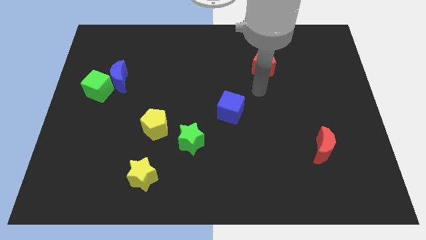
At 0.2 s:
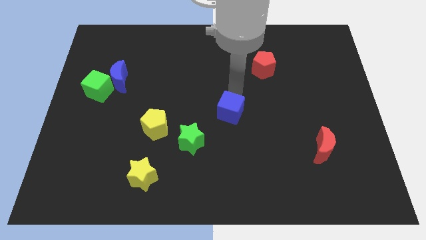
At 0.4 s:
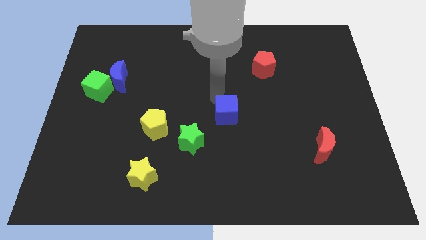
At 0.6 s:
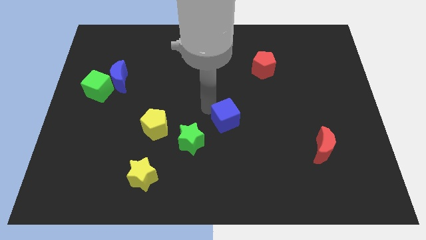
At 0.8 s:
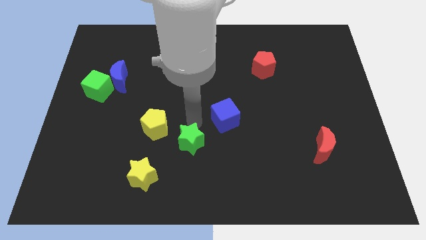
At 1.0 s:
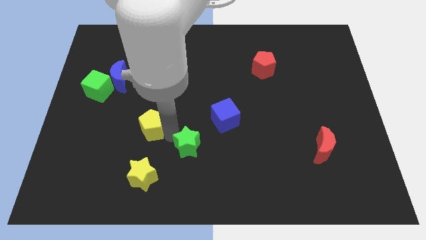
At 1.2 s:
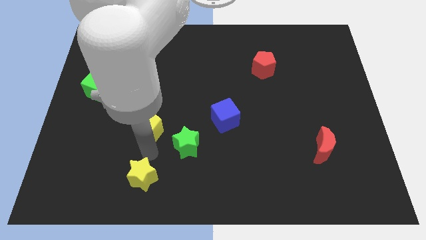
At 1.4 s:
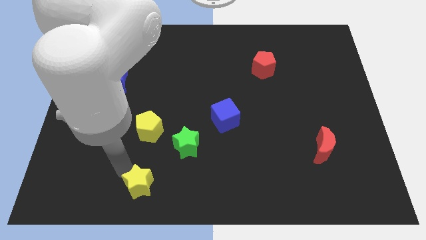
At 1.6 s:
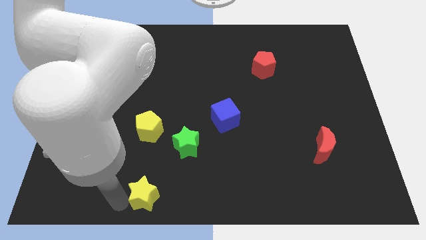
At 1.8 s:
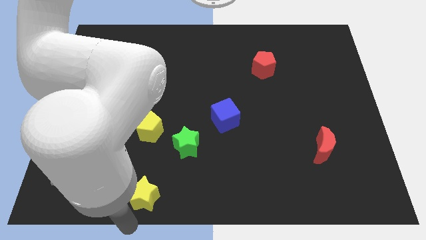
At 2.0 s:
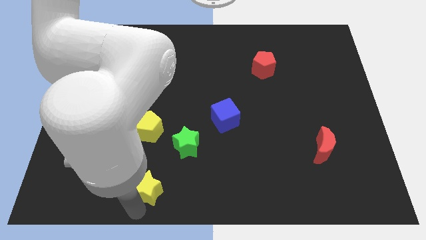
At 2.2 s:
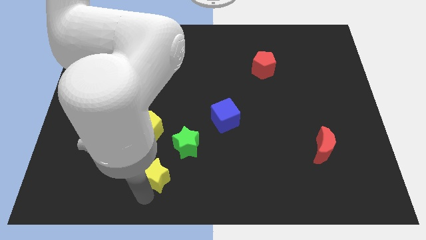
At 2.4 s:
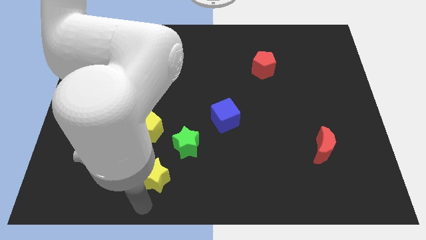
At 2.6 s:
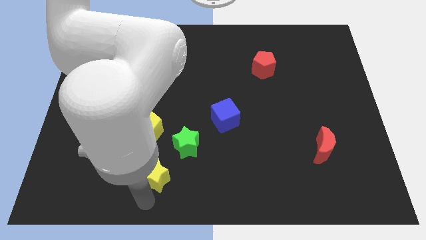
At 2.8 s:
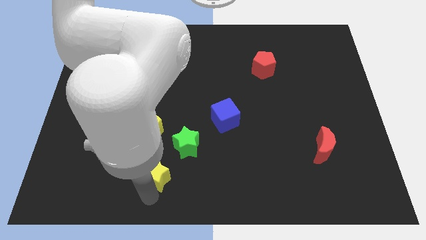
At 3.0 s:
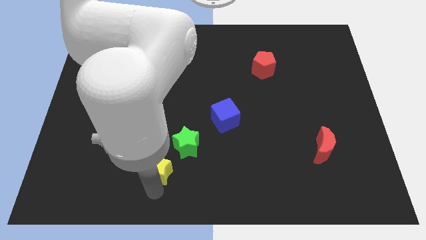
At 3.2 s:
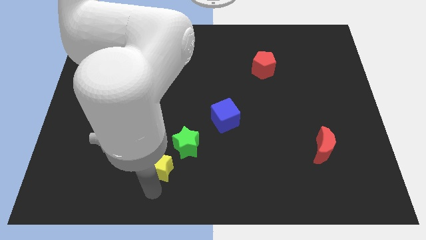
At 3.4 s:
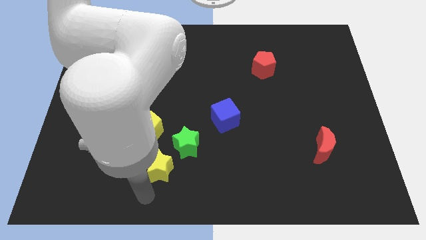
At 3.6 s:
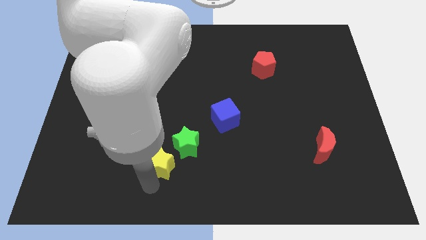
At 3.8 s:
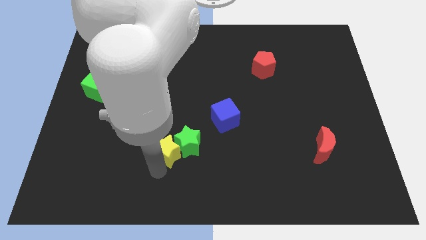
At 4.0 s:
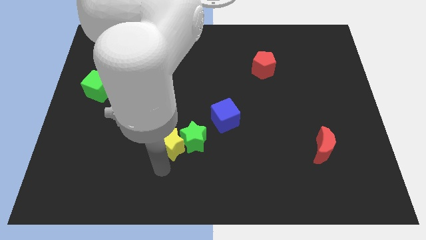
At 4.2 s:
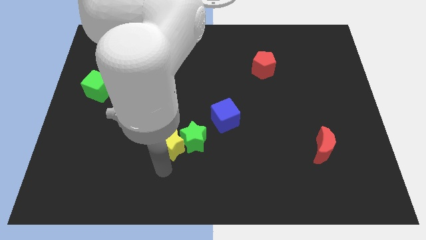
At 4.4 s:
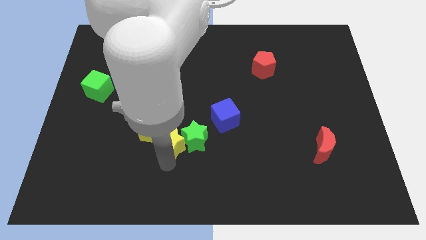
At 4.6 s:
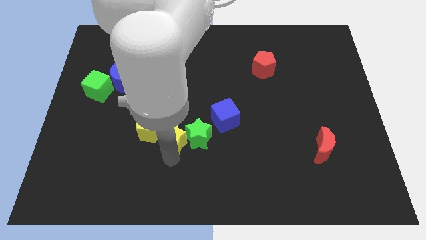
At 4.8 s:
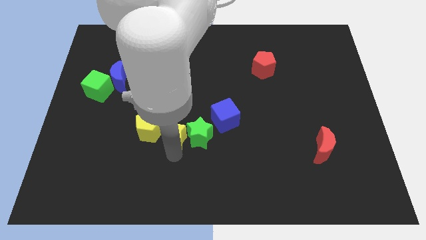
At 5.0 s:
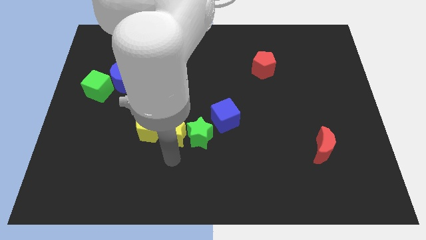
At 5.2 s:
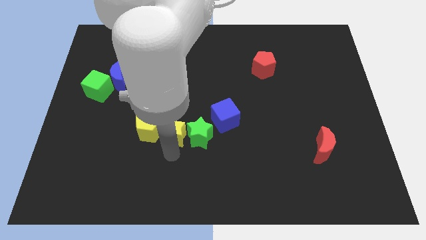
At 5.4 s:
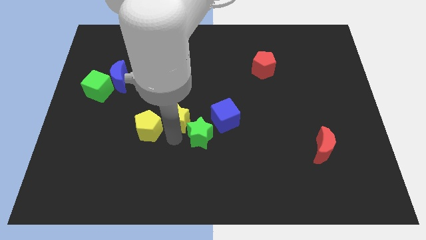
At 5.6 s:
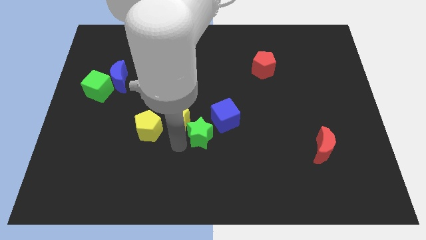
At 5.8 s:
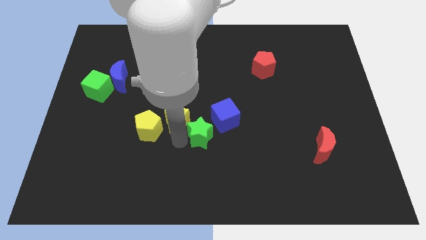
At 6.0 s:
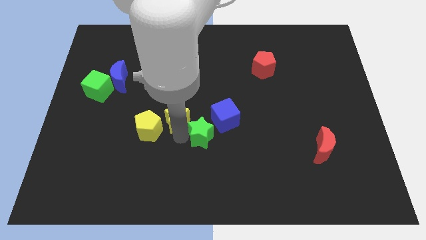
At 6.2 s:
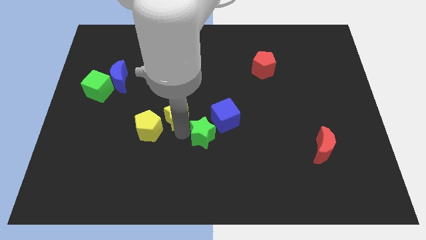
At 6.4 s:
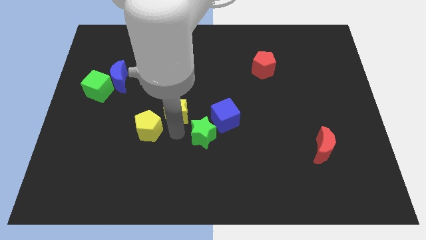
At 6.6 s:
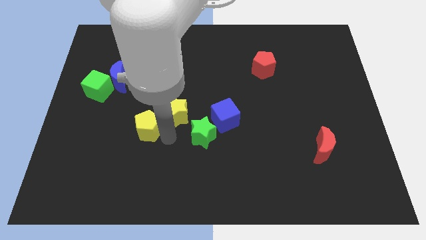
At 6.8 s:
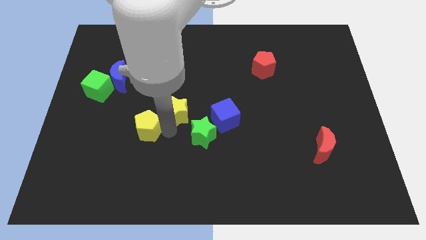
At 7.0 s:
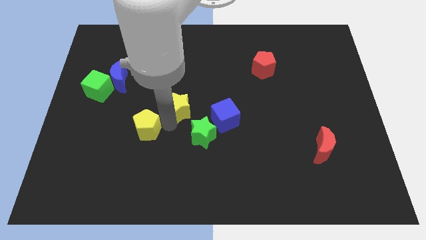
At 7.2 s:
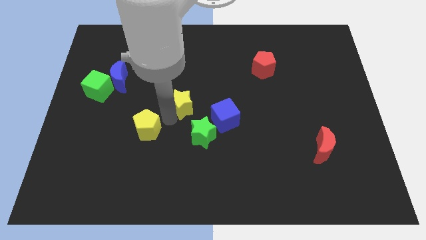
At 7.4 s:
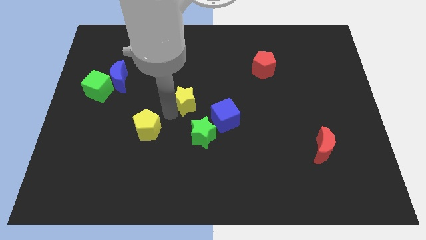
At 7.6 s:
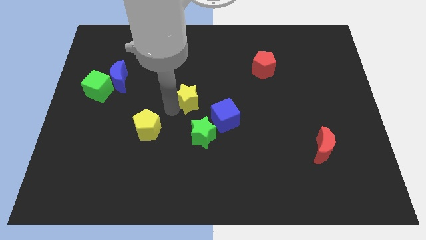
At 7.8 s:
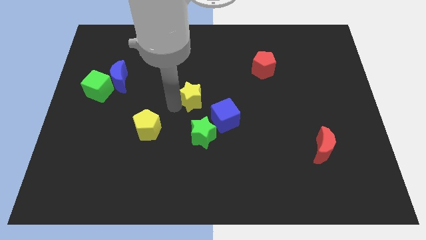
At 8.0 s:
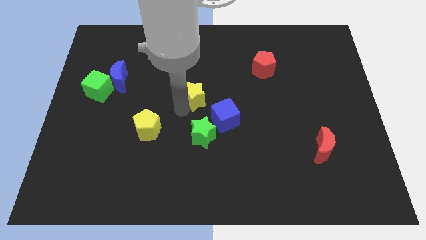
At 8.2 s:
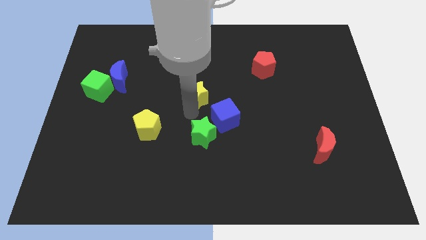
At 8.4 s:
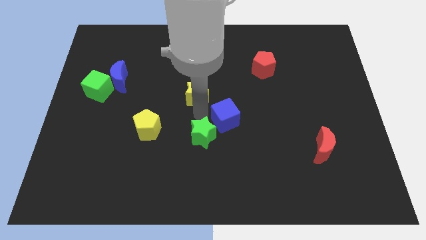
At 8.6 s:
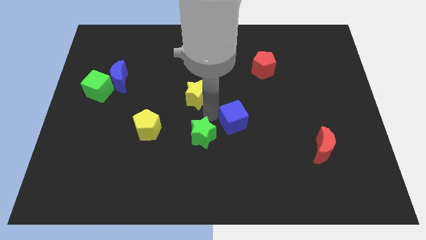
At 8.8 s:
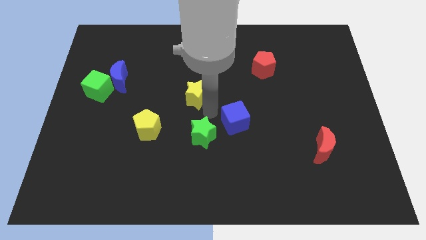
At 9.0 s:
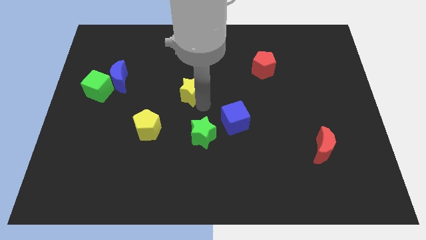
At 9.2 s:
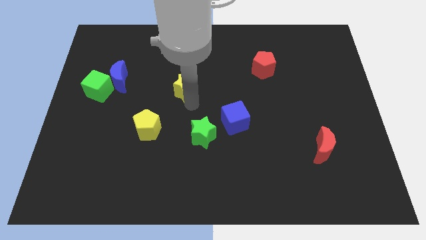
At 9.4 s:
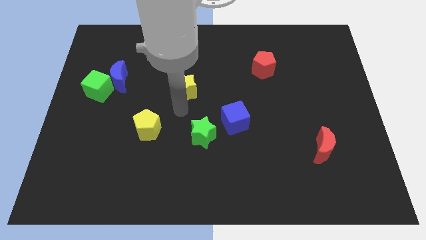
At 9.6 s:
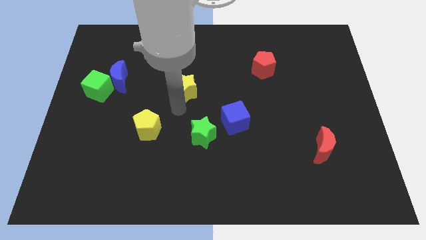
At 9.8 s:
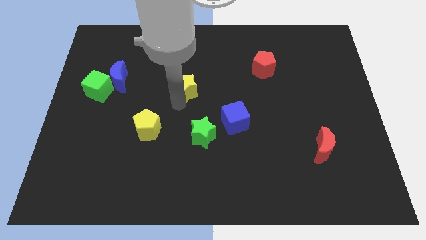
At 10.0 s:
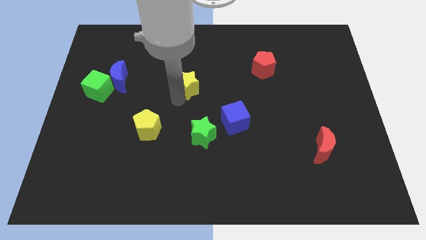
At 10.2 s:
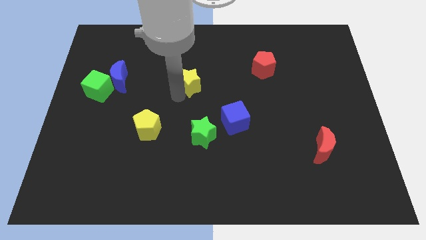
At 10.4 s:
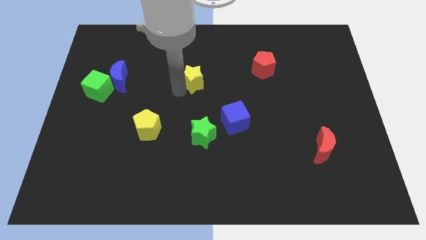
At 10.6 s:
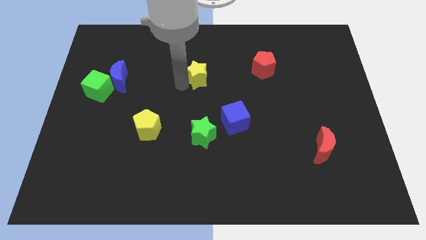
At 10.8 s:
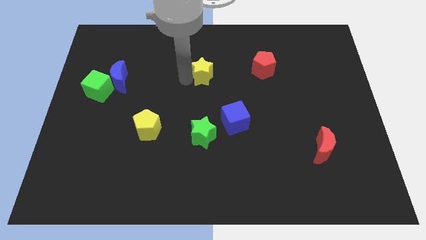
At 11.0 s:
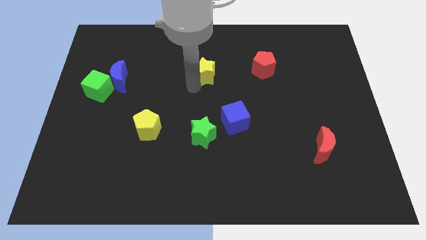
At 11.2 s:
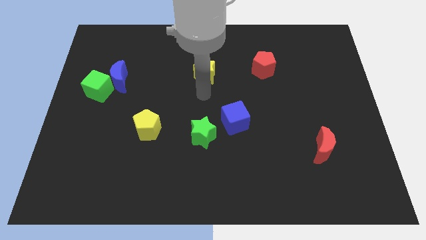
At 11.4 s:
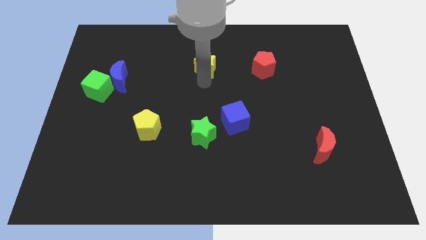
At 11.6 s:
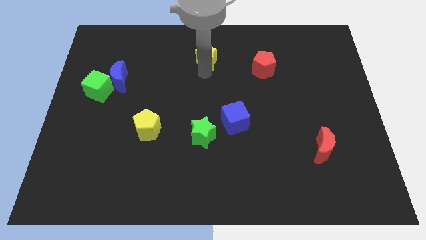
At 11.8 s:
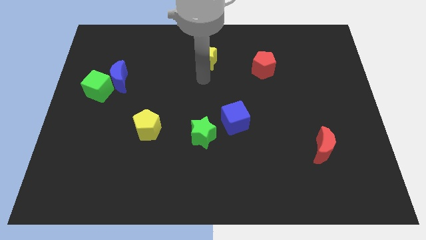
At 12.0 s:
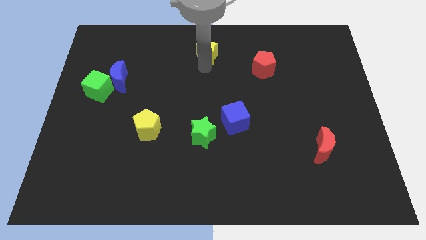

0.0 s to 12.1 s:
move the yellow star to the towards your base

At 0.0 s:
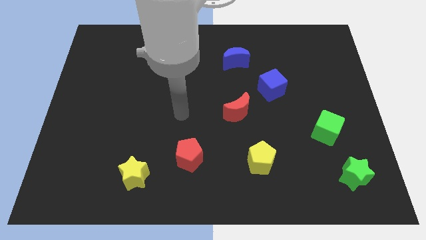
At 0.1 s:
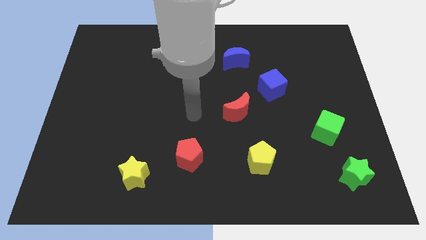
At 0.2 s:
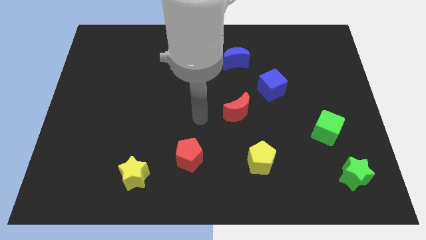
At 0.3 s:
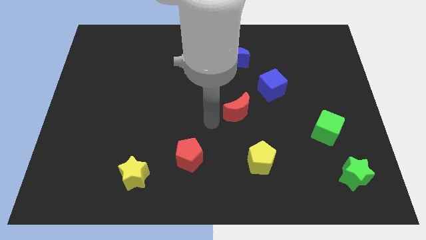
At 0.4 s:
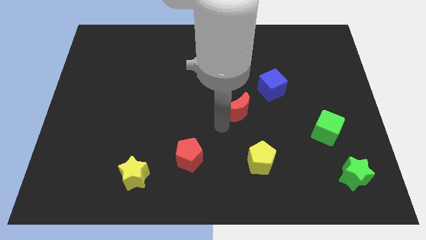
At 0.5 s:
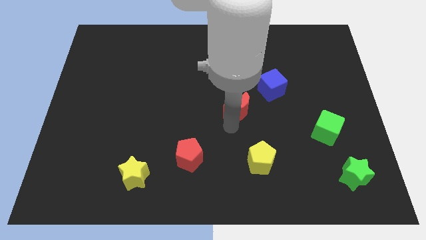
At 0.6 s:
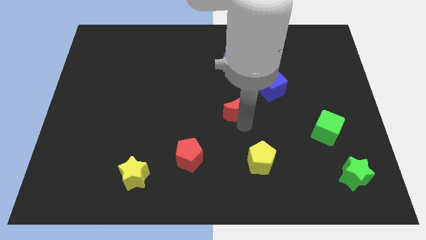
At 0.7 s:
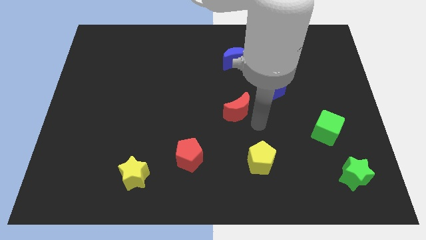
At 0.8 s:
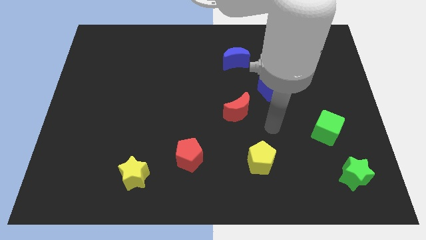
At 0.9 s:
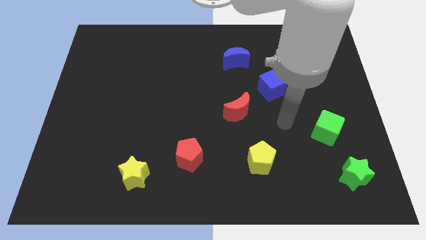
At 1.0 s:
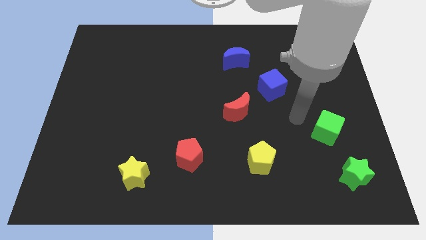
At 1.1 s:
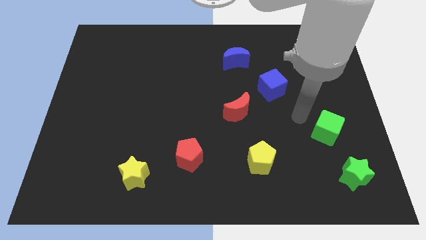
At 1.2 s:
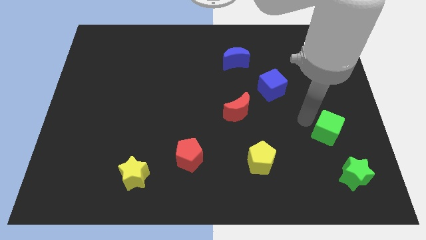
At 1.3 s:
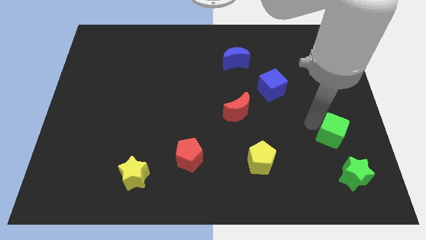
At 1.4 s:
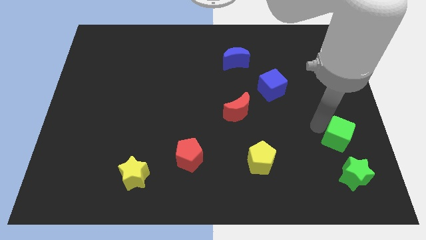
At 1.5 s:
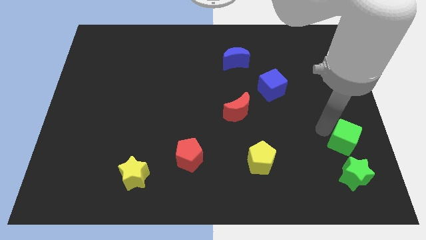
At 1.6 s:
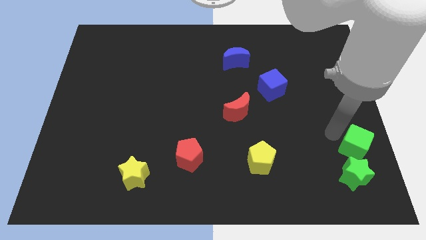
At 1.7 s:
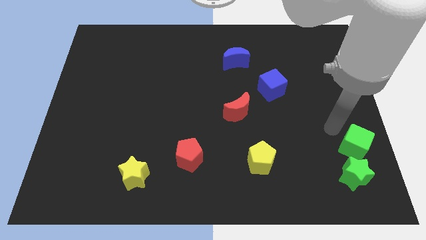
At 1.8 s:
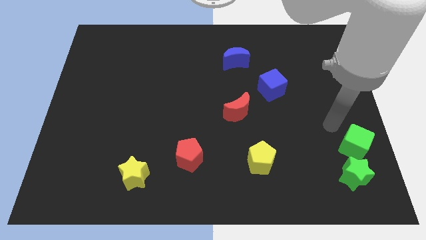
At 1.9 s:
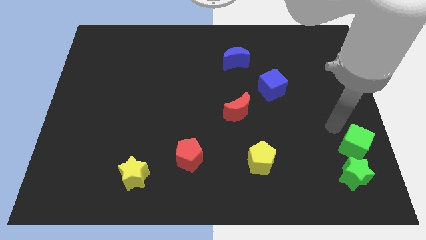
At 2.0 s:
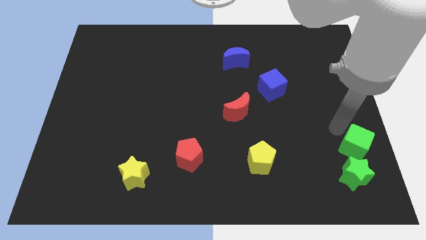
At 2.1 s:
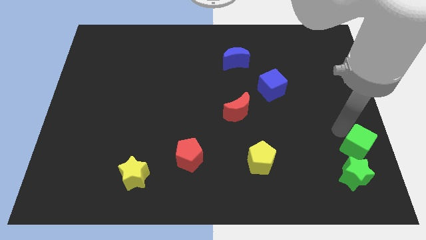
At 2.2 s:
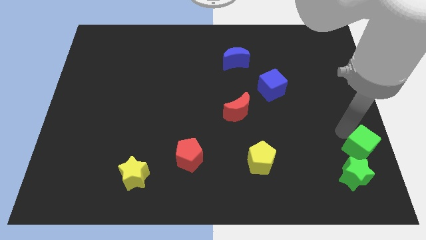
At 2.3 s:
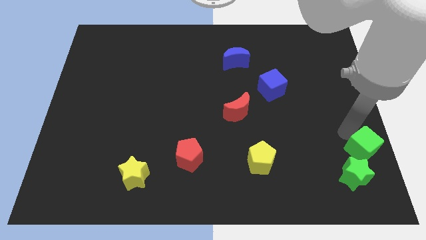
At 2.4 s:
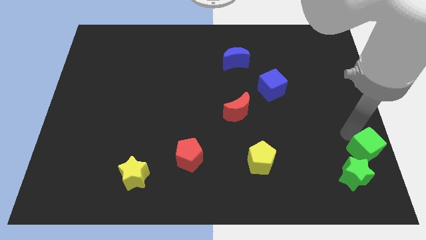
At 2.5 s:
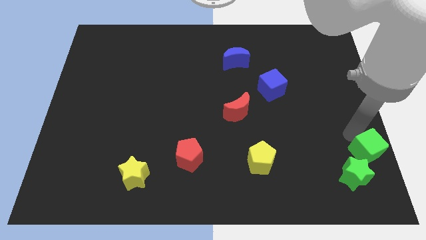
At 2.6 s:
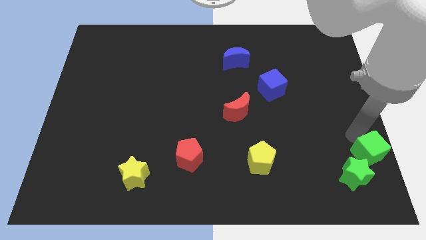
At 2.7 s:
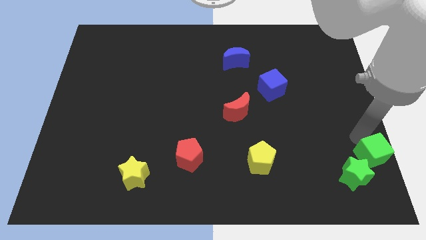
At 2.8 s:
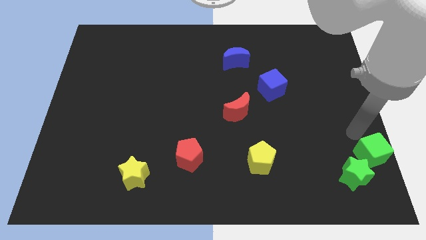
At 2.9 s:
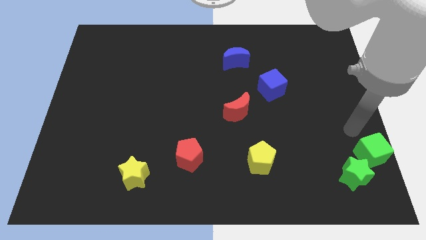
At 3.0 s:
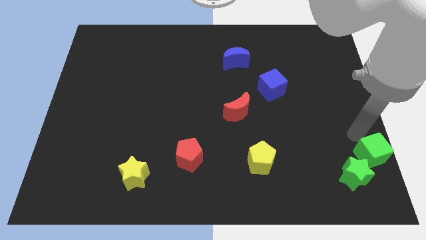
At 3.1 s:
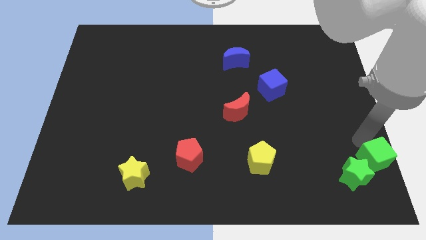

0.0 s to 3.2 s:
slide the green cube to the bottom right
